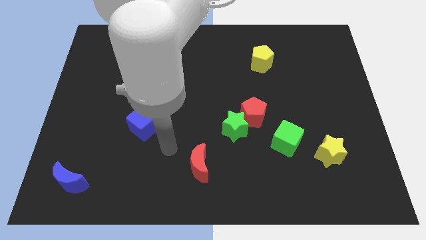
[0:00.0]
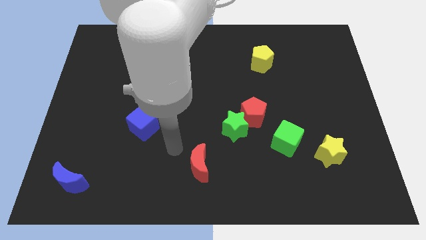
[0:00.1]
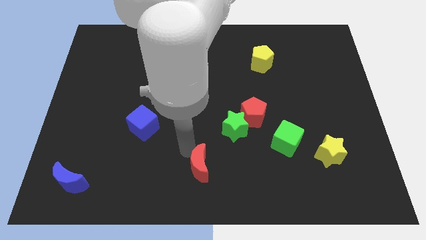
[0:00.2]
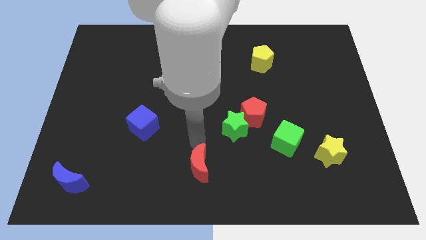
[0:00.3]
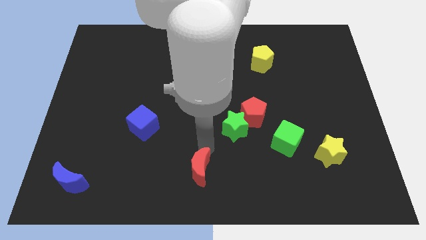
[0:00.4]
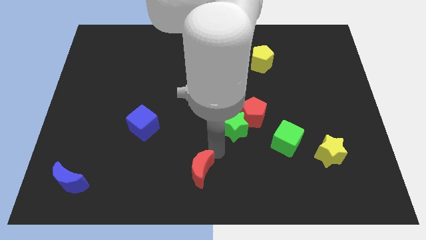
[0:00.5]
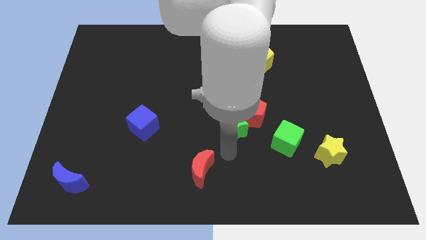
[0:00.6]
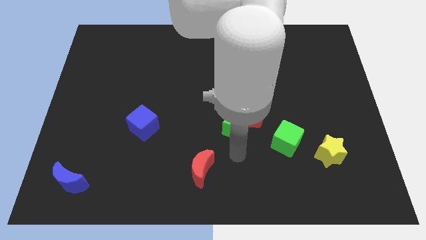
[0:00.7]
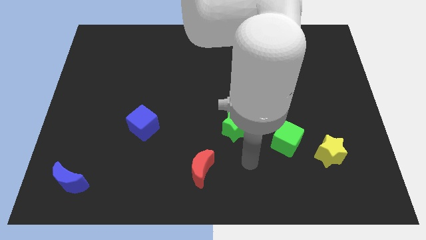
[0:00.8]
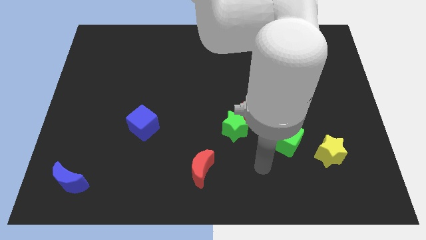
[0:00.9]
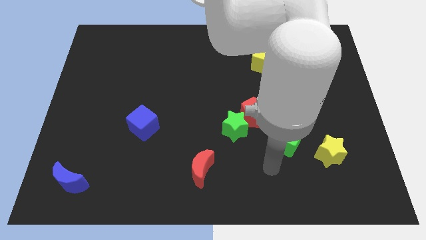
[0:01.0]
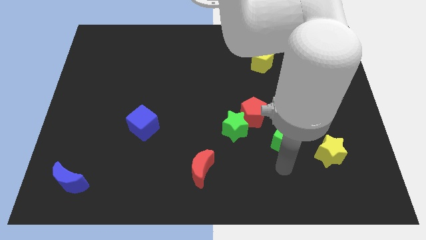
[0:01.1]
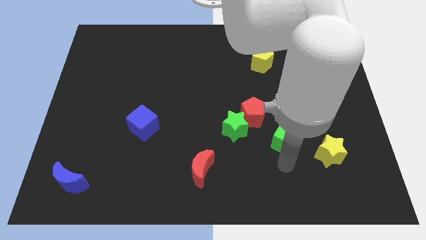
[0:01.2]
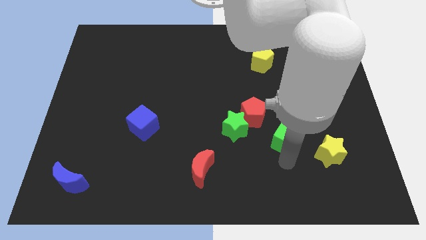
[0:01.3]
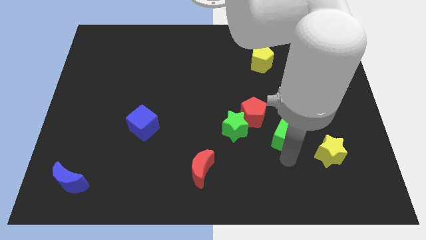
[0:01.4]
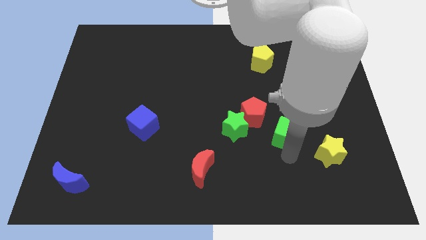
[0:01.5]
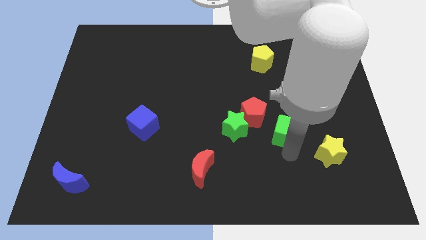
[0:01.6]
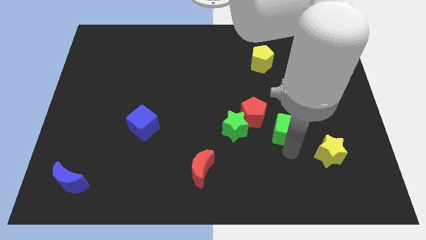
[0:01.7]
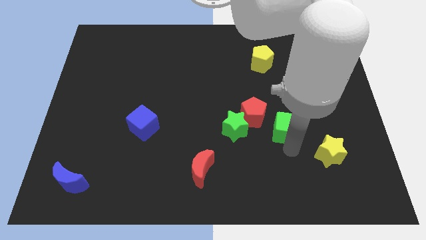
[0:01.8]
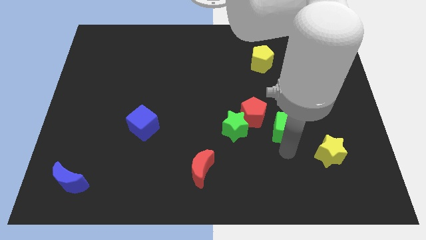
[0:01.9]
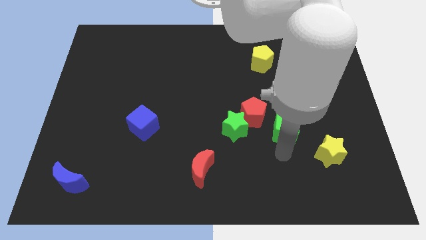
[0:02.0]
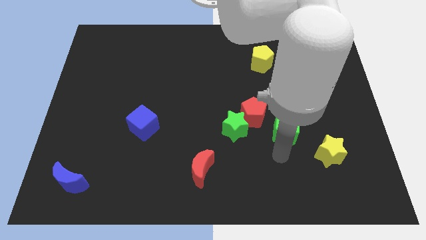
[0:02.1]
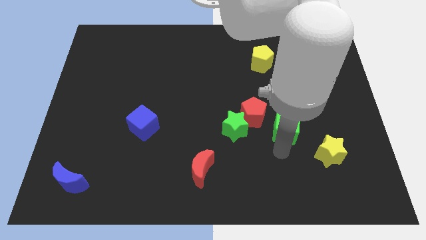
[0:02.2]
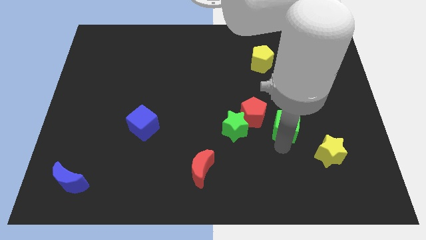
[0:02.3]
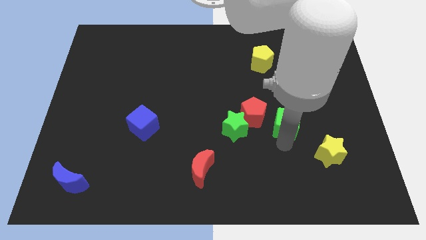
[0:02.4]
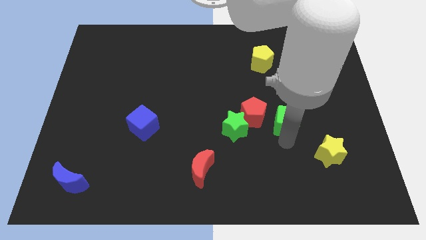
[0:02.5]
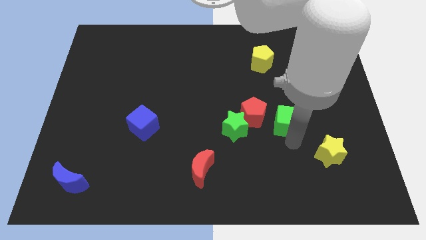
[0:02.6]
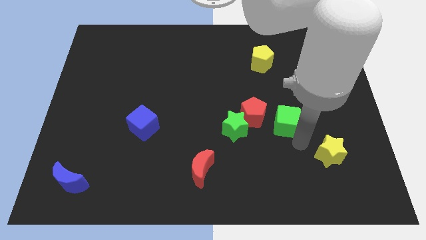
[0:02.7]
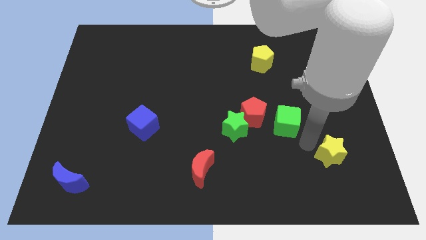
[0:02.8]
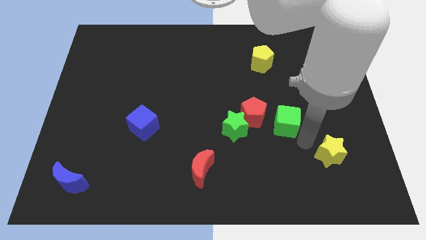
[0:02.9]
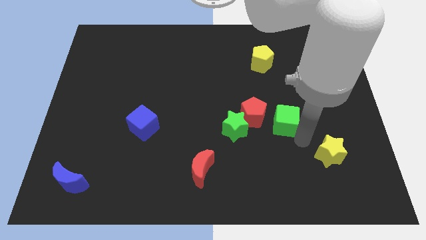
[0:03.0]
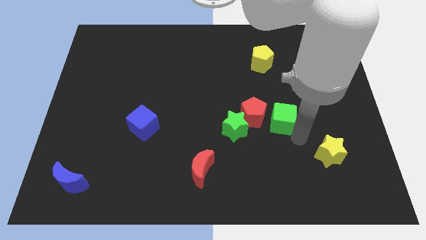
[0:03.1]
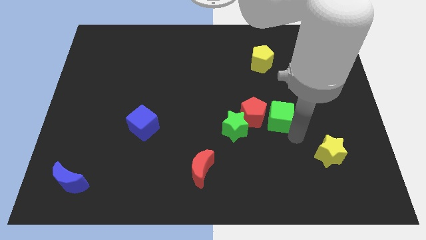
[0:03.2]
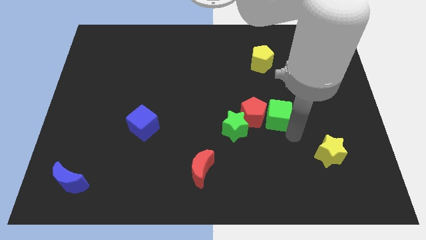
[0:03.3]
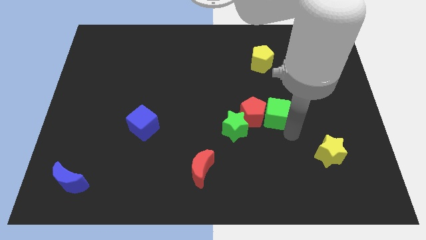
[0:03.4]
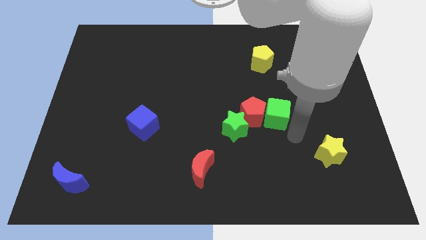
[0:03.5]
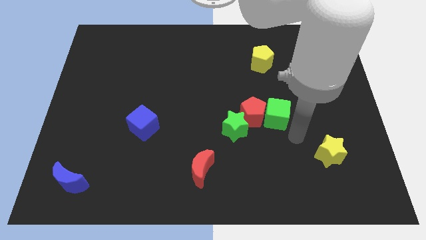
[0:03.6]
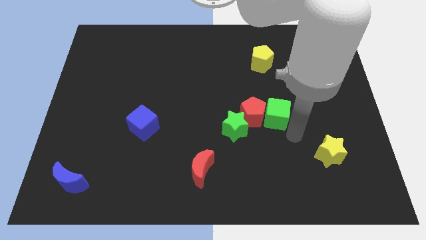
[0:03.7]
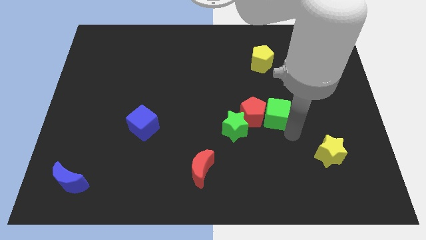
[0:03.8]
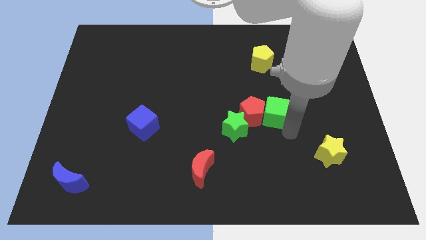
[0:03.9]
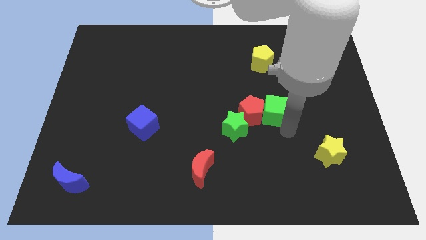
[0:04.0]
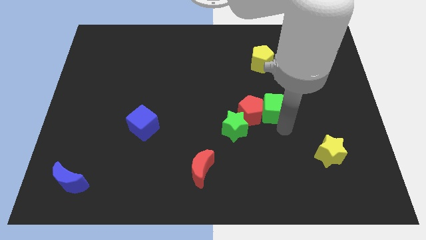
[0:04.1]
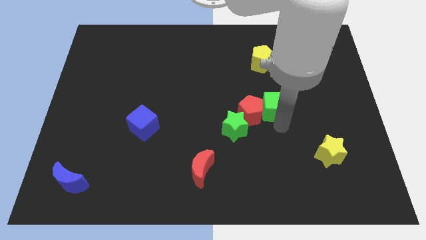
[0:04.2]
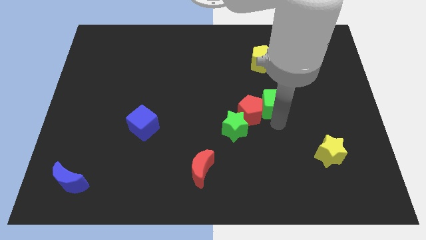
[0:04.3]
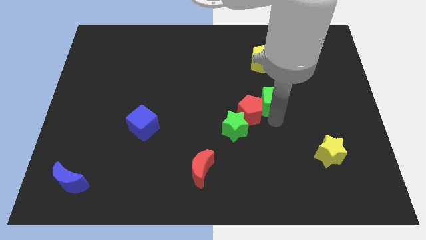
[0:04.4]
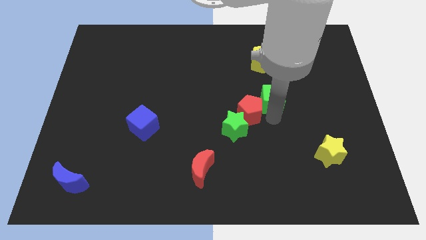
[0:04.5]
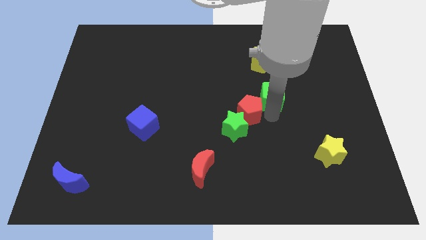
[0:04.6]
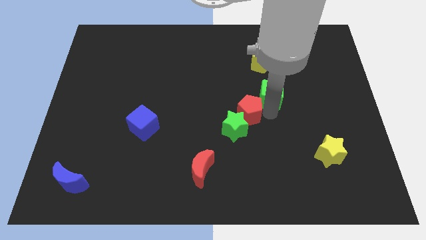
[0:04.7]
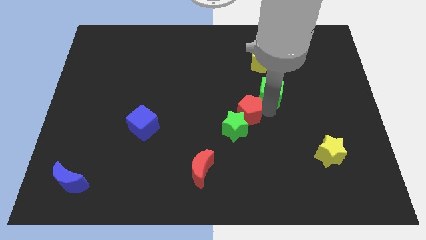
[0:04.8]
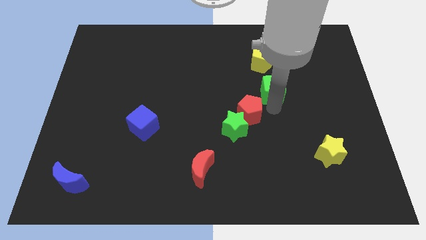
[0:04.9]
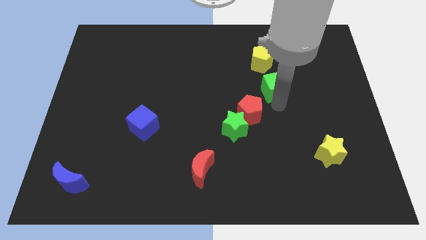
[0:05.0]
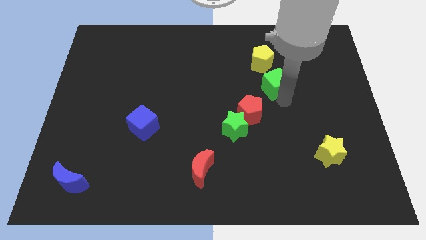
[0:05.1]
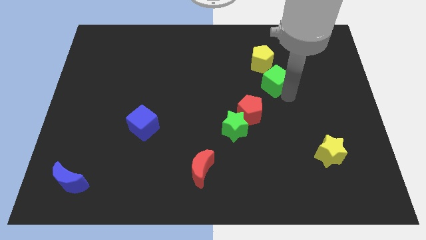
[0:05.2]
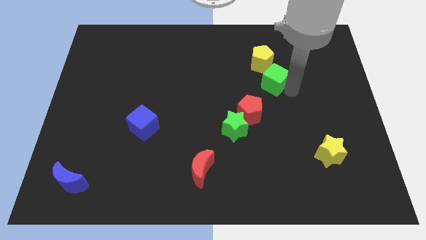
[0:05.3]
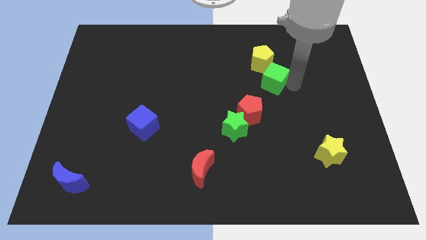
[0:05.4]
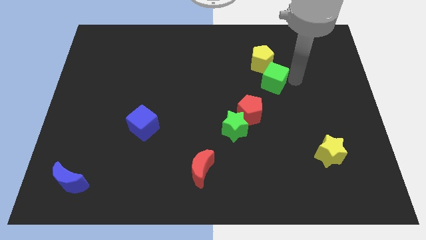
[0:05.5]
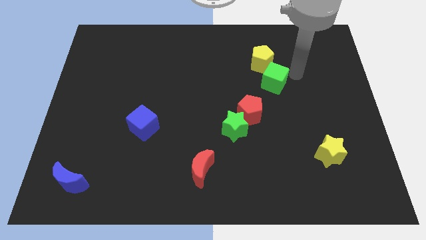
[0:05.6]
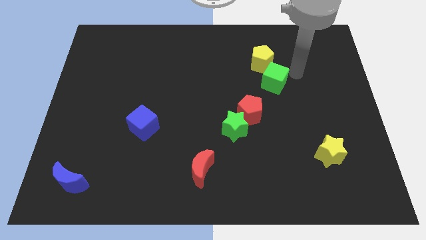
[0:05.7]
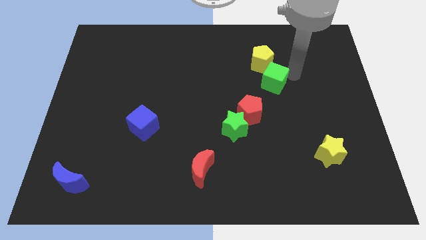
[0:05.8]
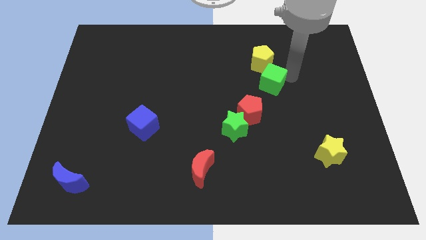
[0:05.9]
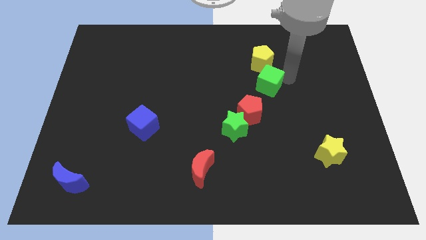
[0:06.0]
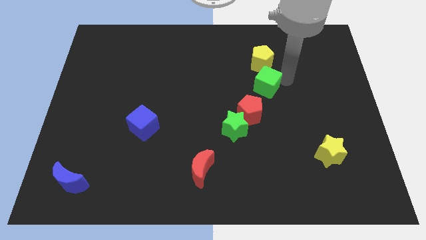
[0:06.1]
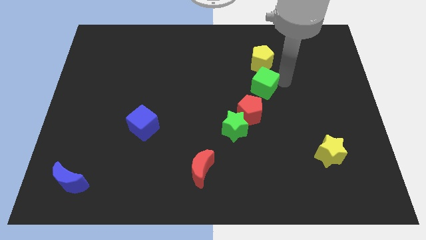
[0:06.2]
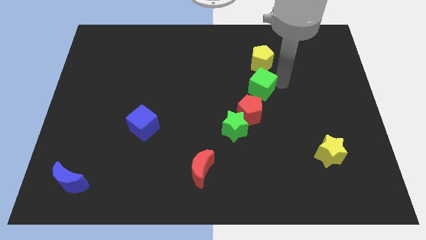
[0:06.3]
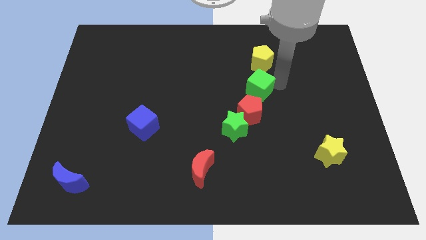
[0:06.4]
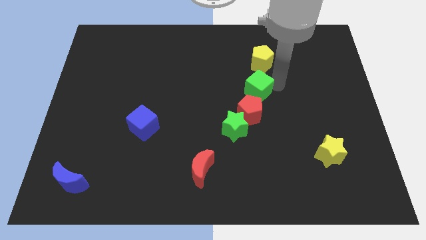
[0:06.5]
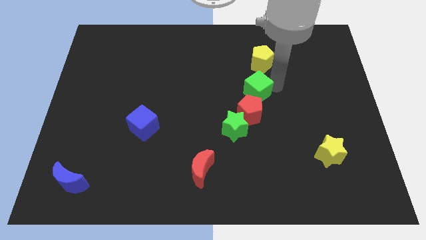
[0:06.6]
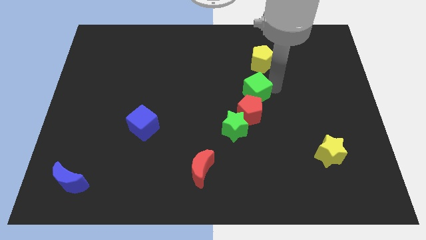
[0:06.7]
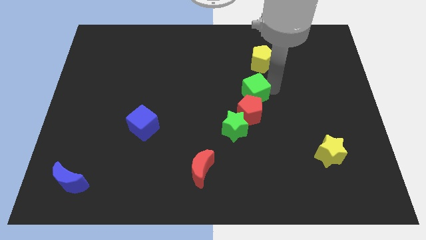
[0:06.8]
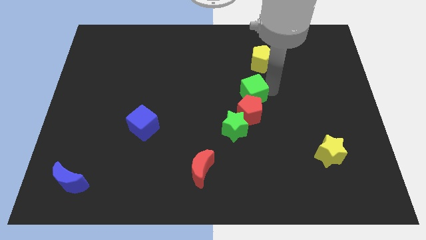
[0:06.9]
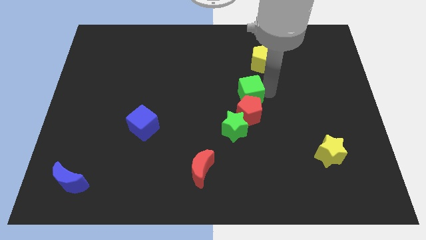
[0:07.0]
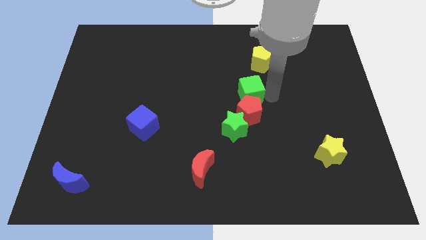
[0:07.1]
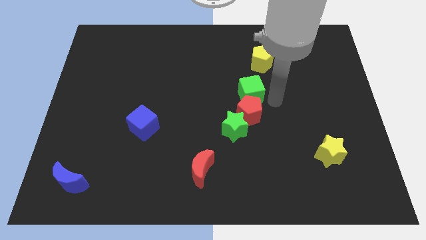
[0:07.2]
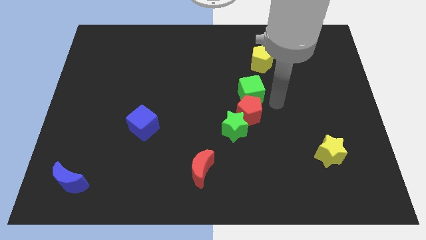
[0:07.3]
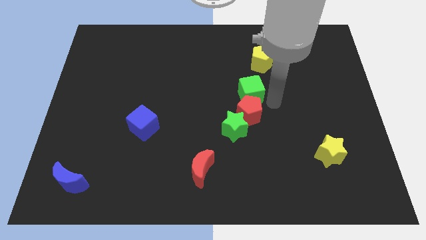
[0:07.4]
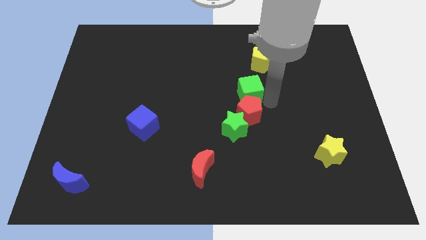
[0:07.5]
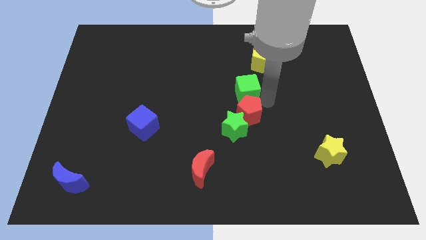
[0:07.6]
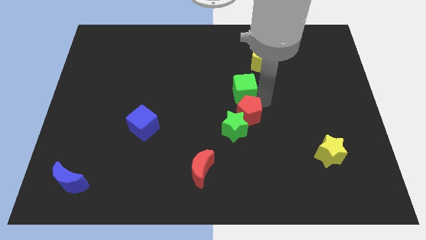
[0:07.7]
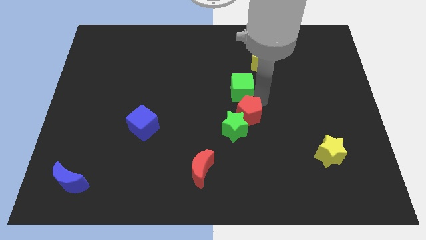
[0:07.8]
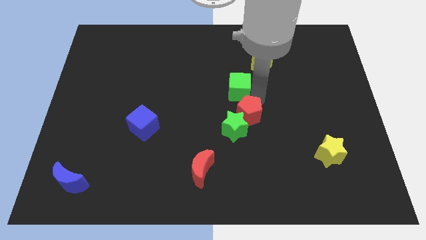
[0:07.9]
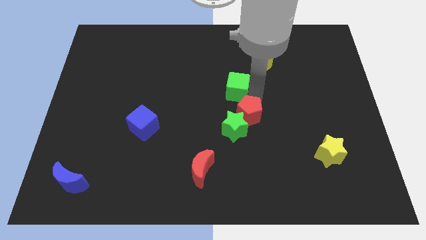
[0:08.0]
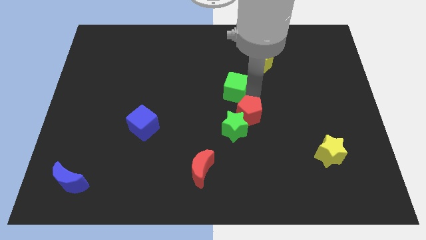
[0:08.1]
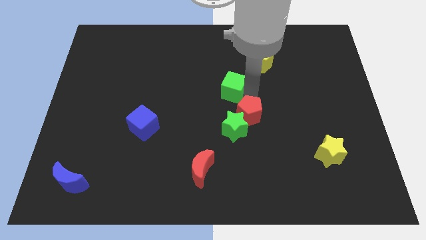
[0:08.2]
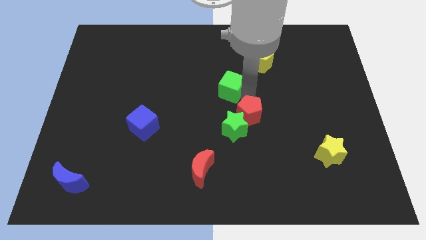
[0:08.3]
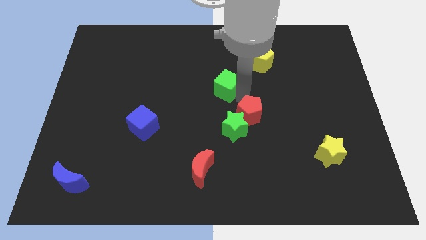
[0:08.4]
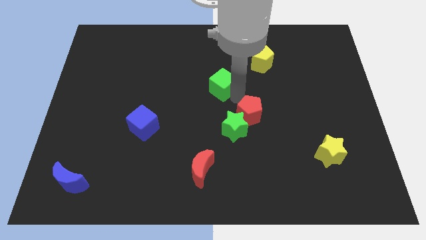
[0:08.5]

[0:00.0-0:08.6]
push the green cube up and left
